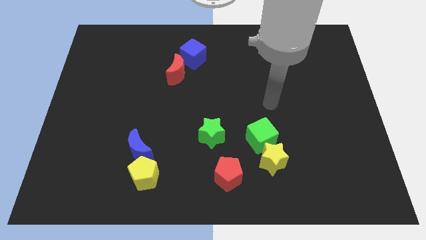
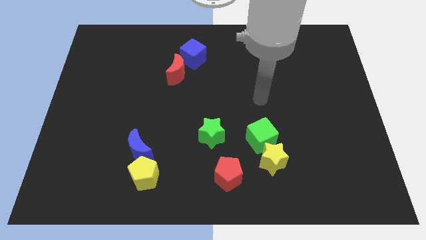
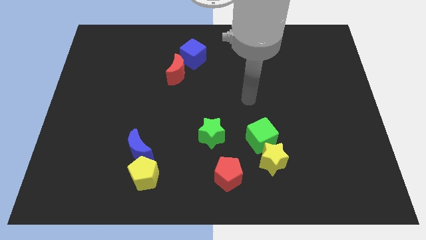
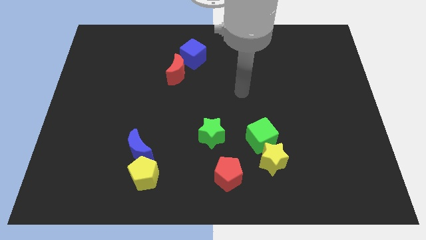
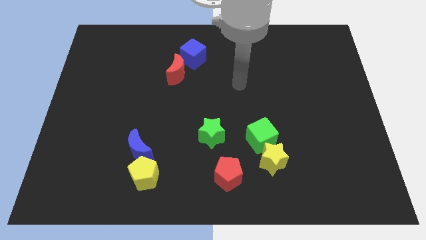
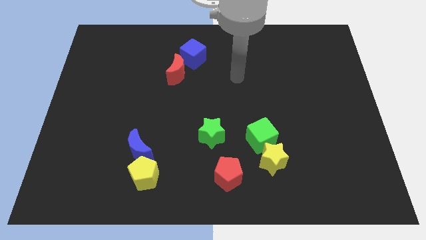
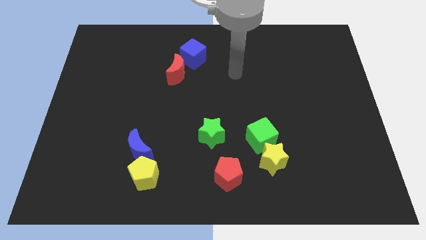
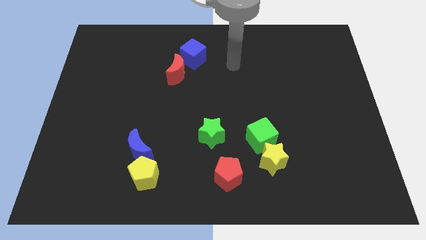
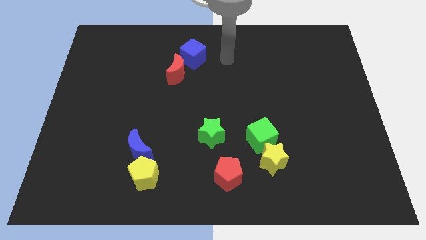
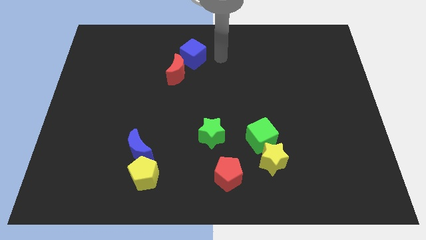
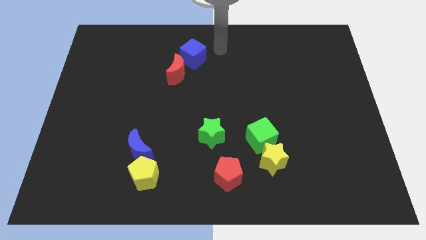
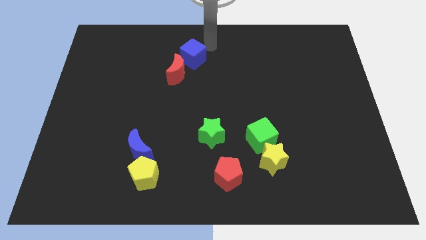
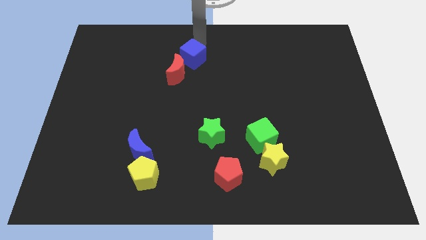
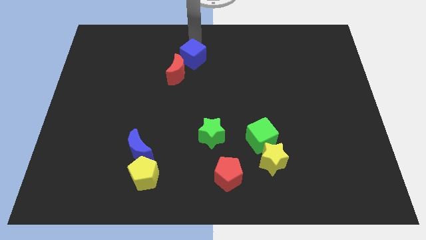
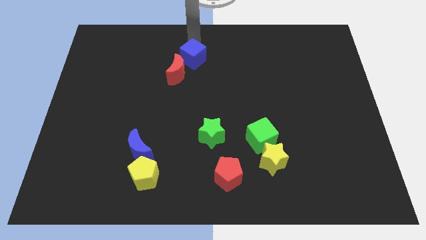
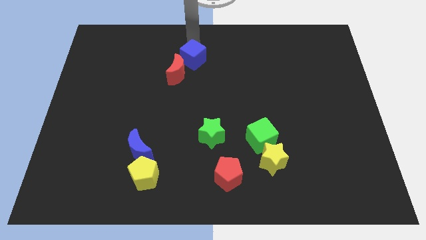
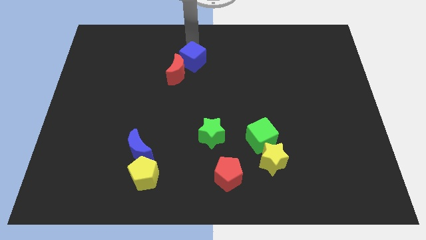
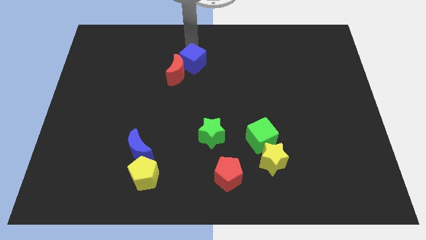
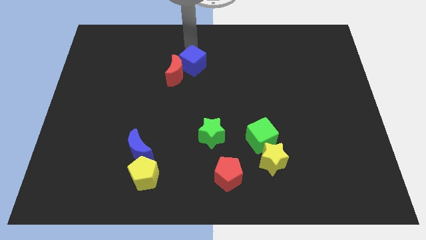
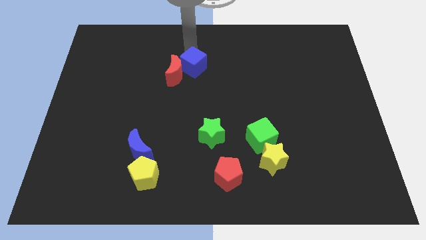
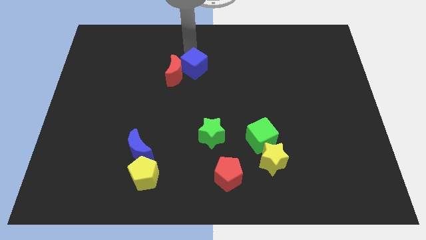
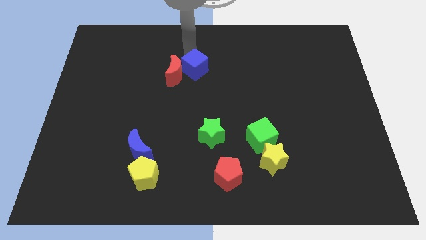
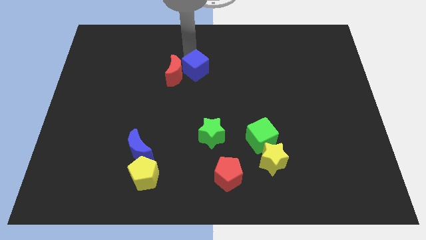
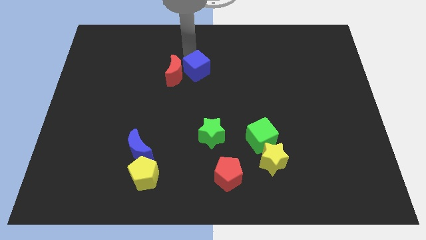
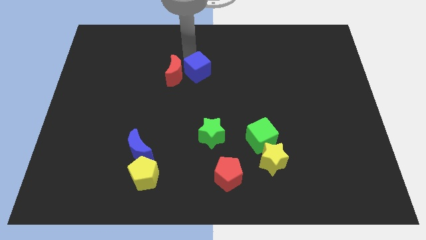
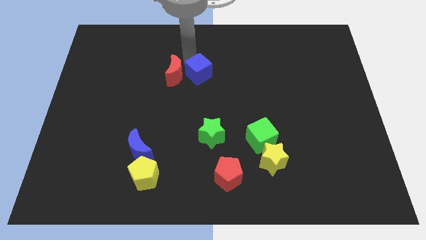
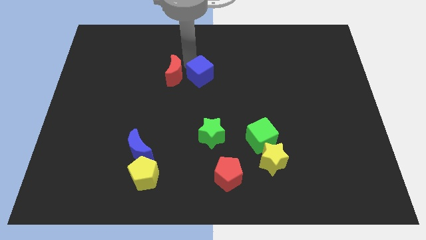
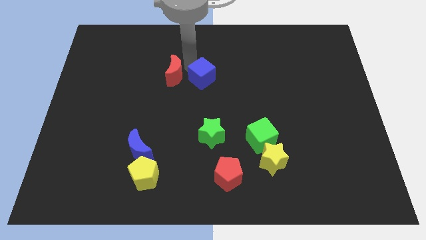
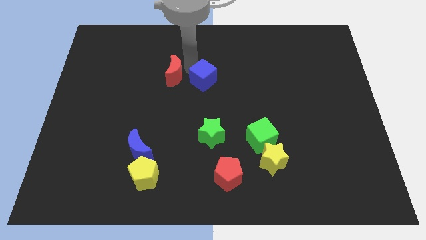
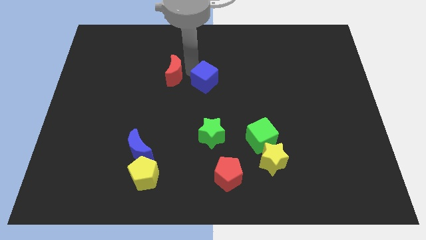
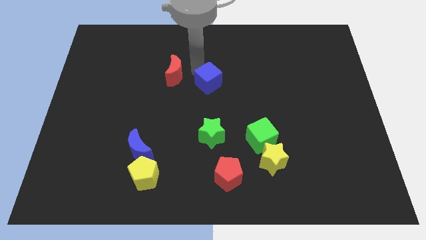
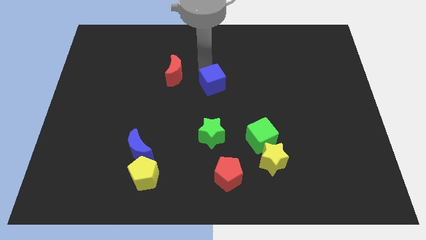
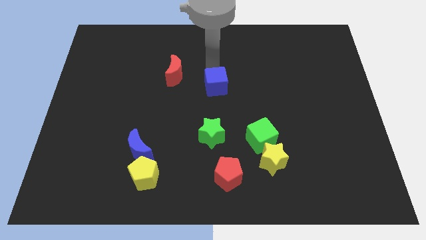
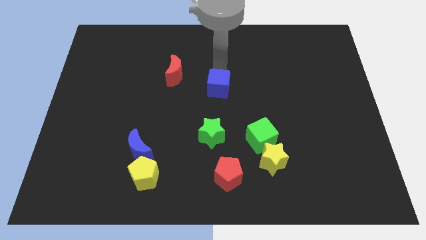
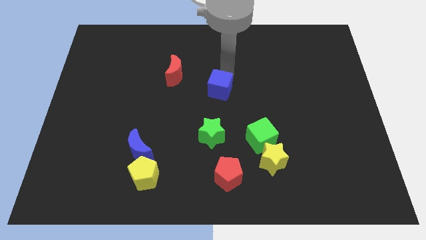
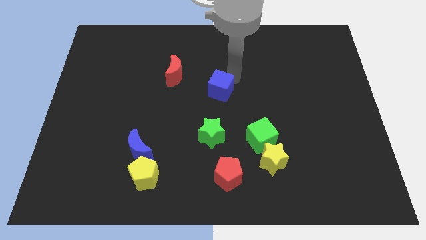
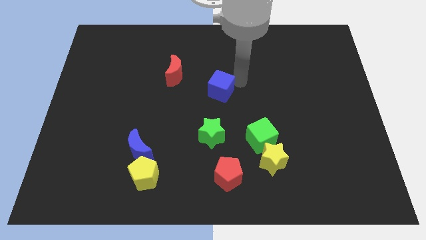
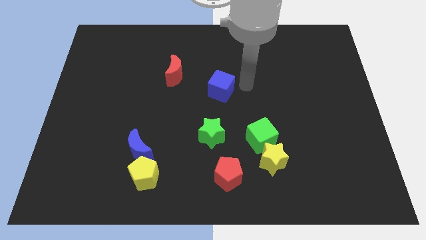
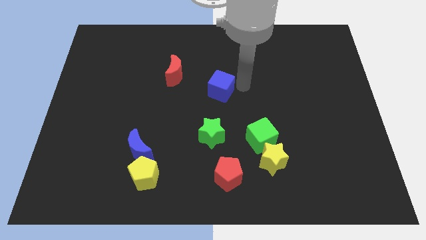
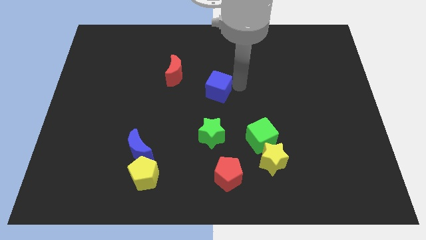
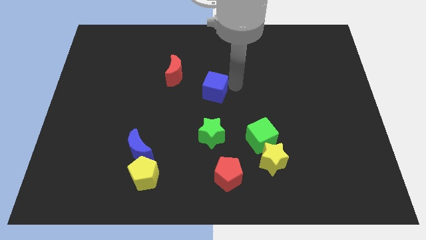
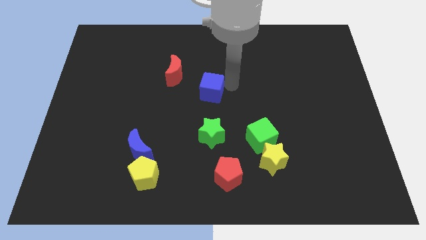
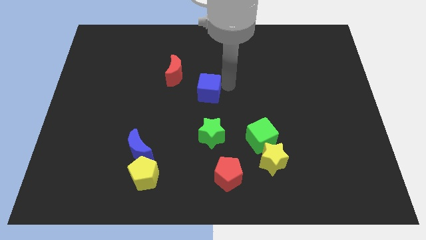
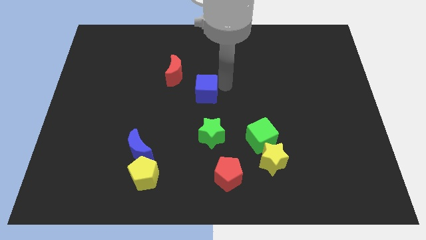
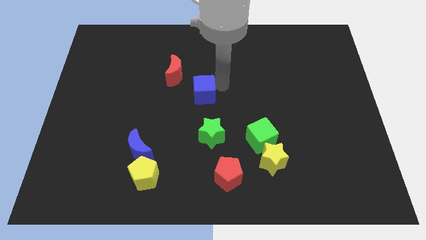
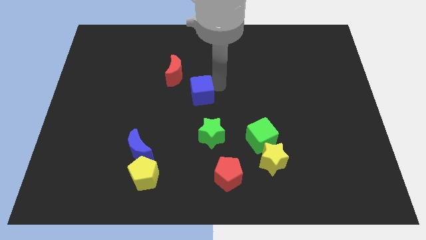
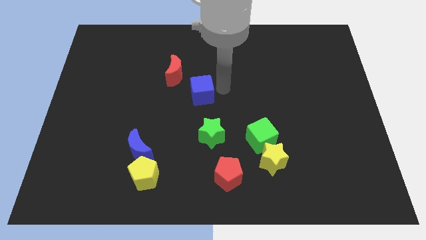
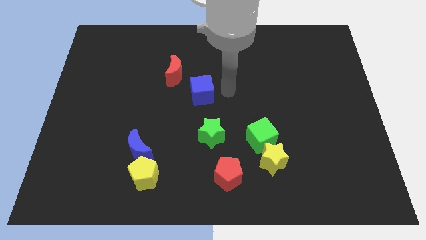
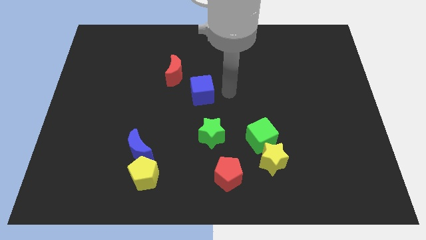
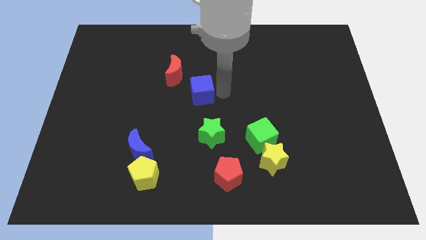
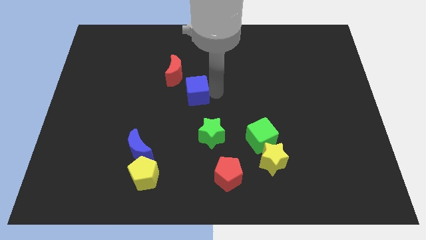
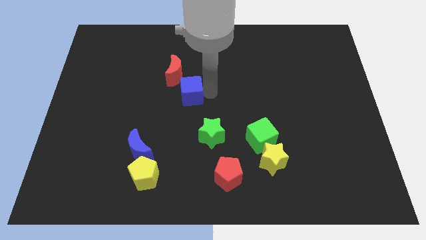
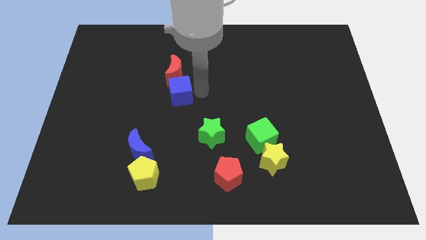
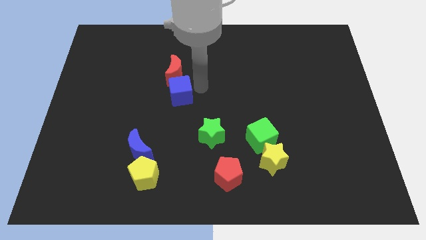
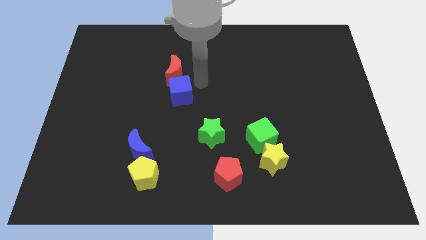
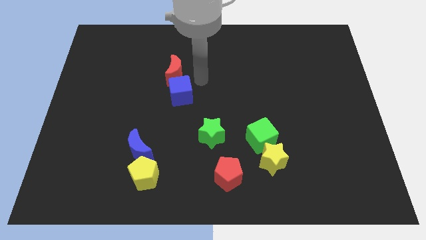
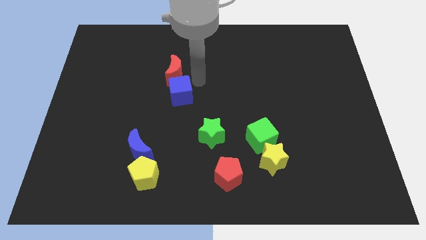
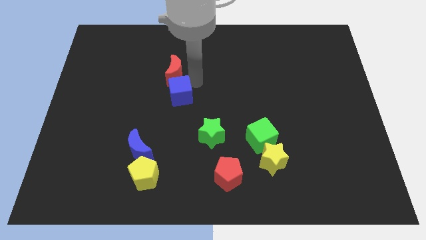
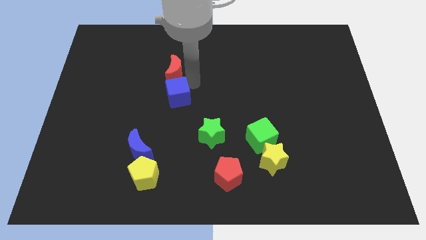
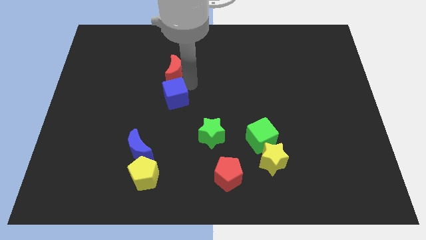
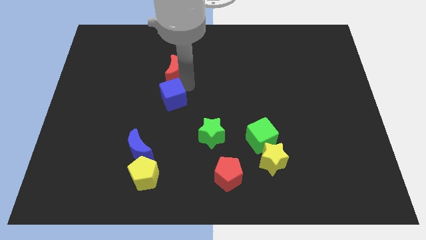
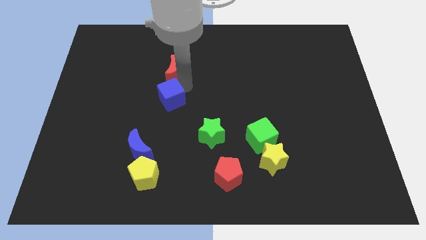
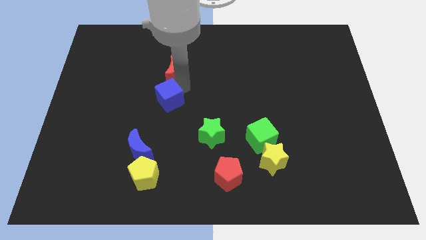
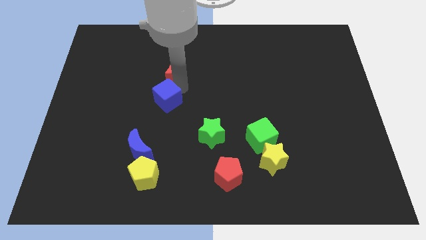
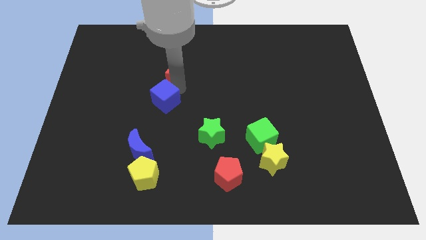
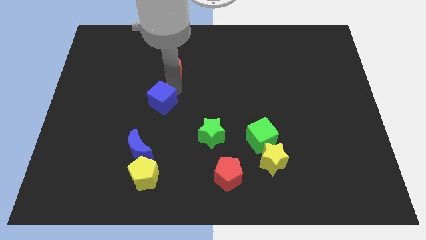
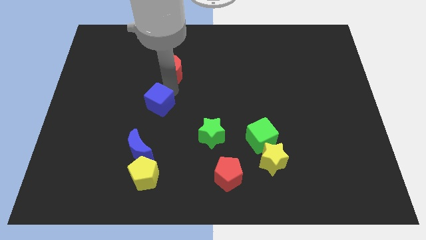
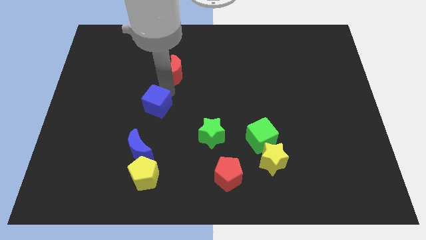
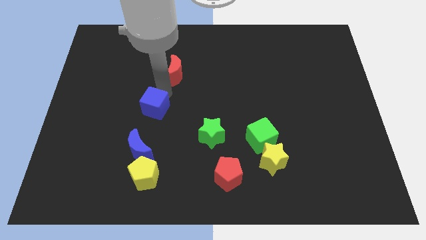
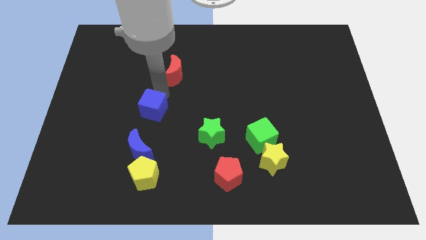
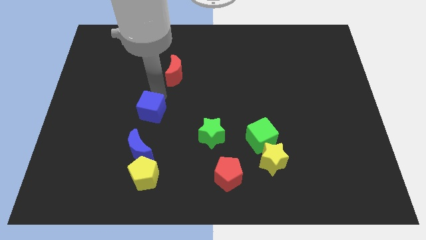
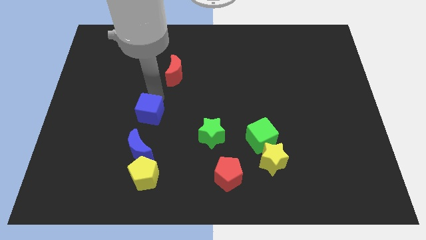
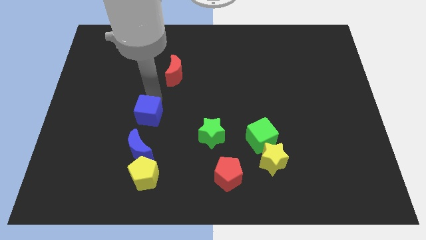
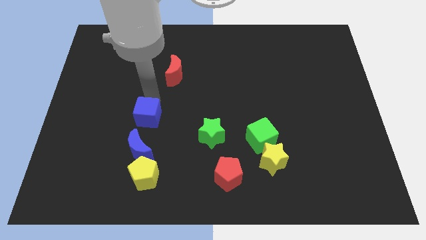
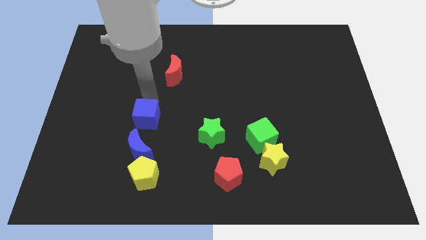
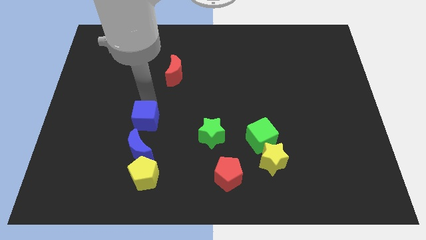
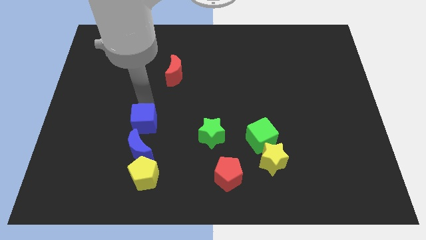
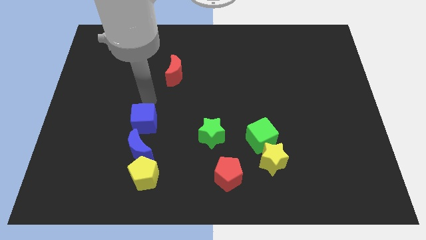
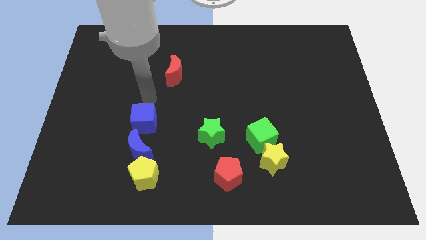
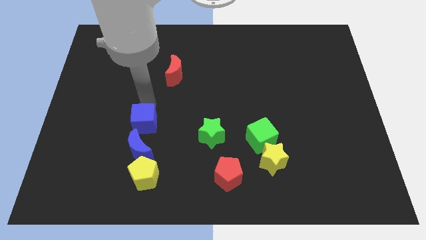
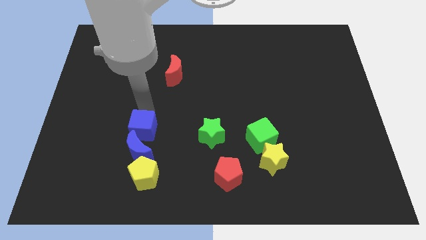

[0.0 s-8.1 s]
push the blue cube towards the blue moon
